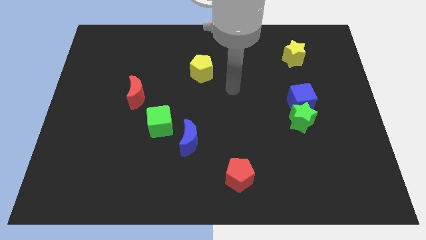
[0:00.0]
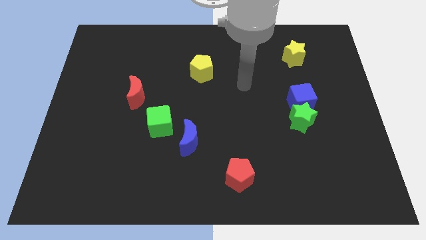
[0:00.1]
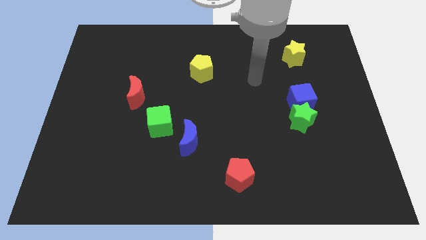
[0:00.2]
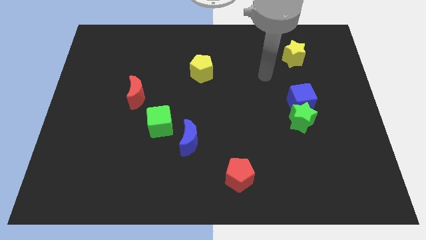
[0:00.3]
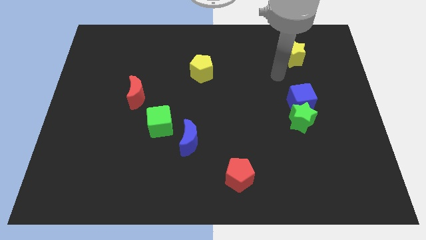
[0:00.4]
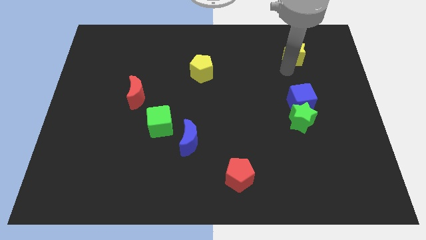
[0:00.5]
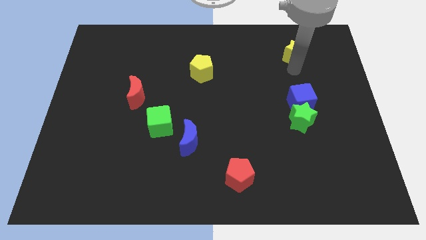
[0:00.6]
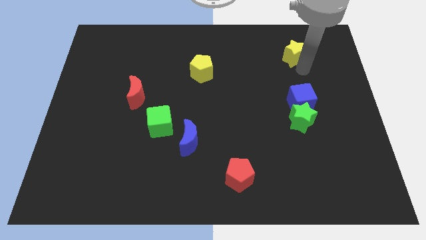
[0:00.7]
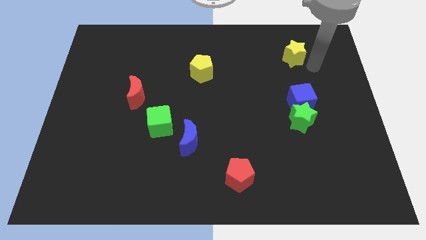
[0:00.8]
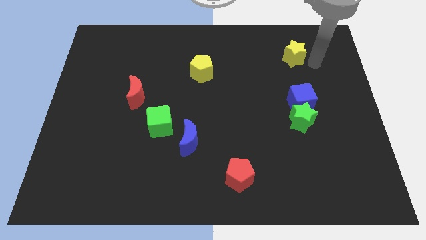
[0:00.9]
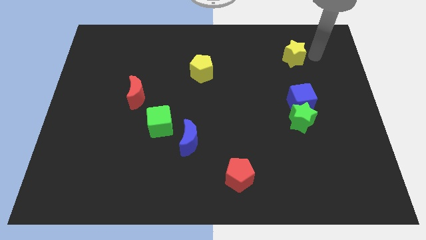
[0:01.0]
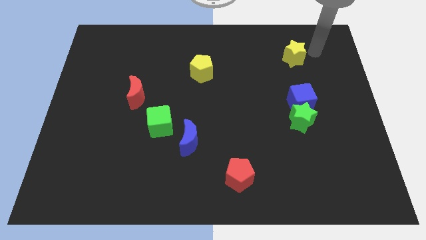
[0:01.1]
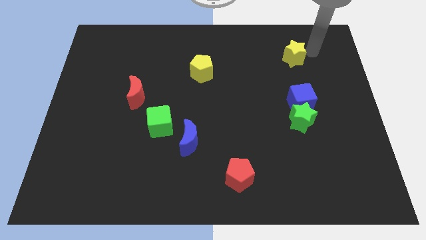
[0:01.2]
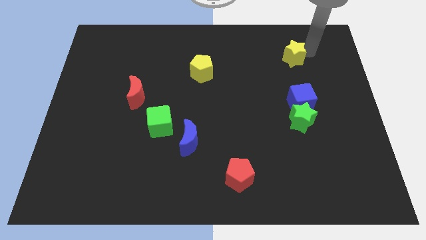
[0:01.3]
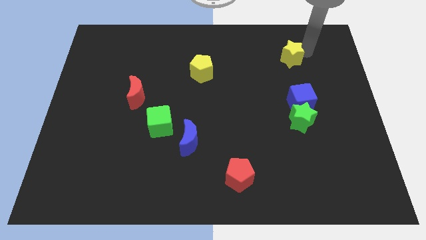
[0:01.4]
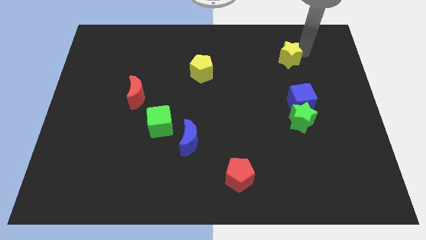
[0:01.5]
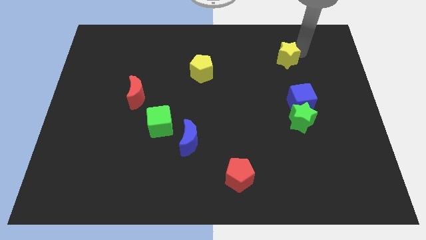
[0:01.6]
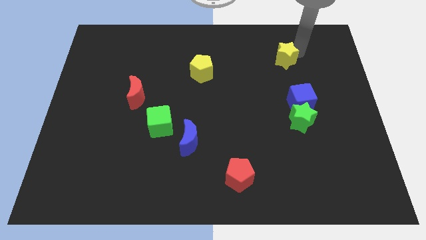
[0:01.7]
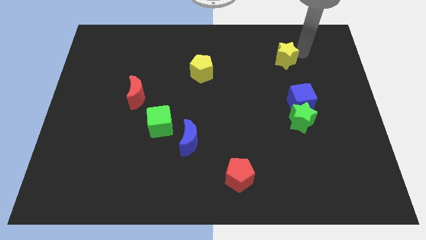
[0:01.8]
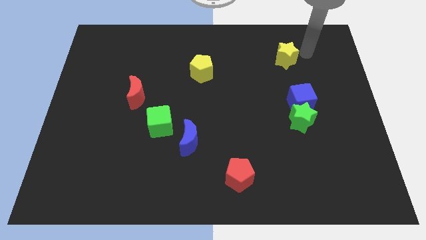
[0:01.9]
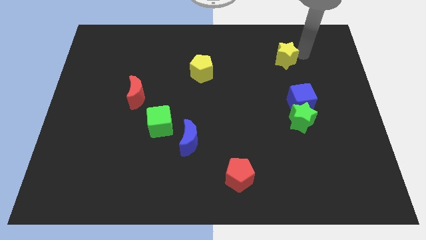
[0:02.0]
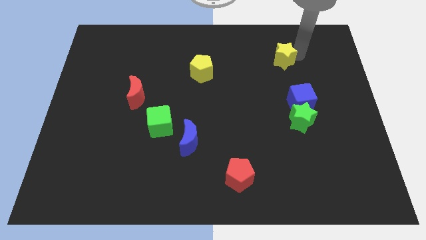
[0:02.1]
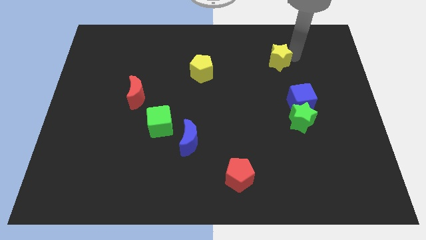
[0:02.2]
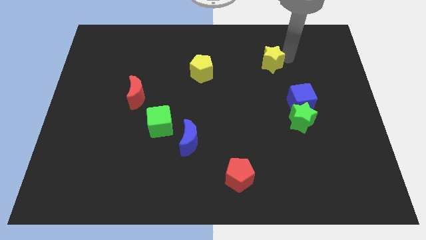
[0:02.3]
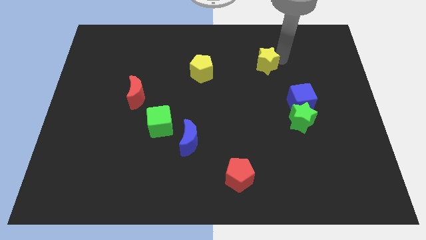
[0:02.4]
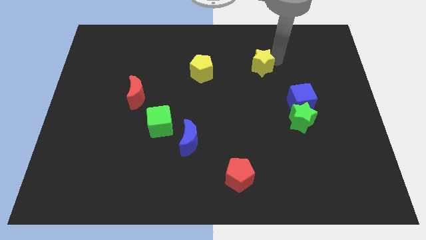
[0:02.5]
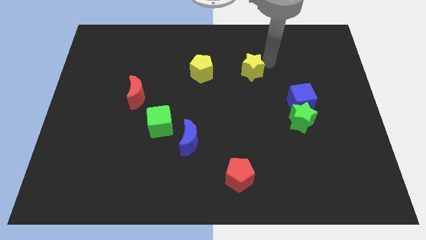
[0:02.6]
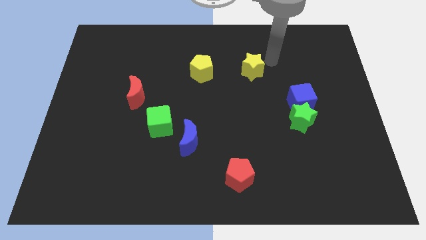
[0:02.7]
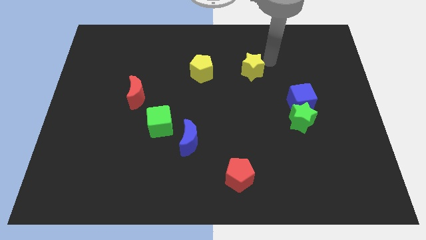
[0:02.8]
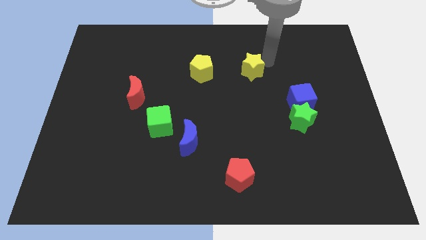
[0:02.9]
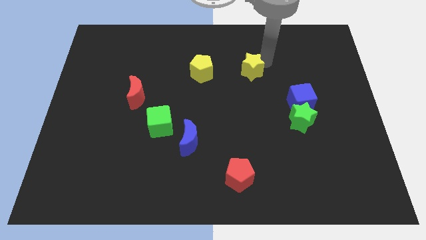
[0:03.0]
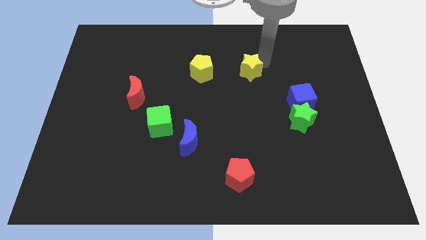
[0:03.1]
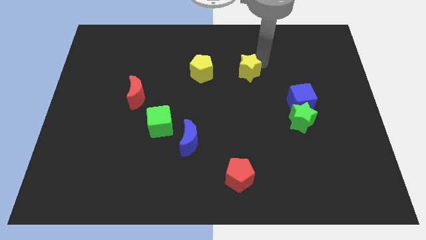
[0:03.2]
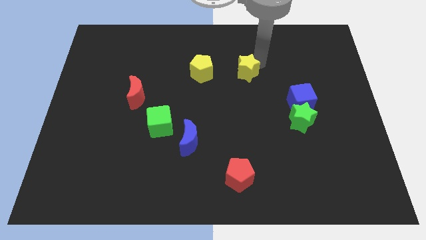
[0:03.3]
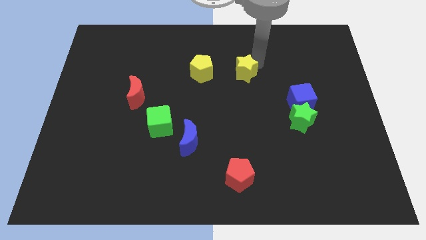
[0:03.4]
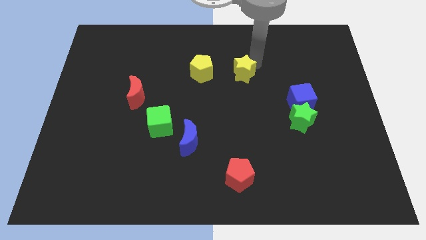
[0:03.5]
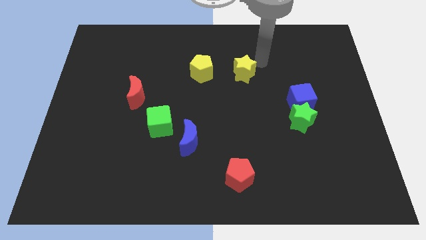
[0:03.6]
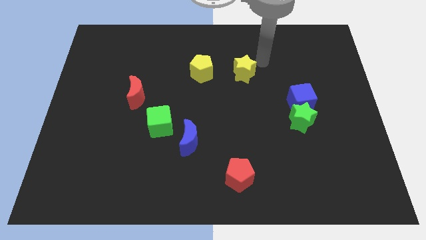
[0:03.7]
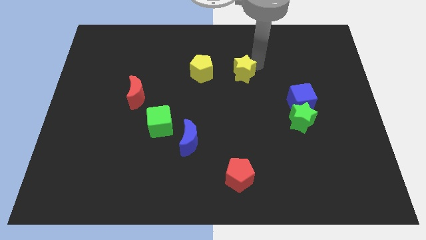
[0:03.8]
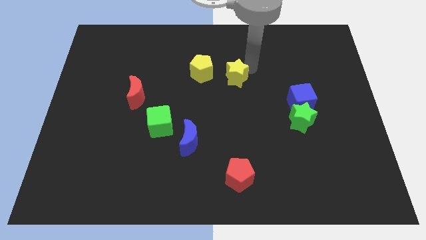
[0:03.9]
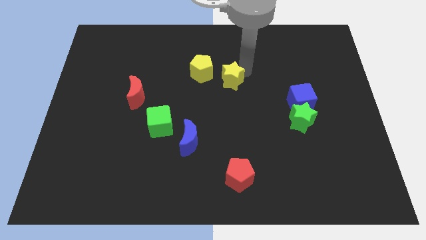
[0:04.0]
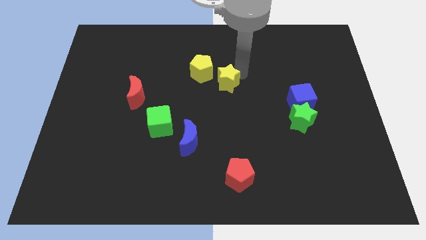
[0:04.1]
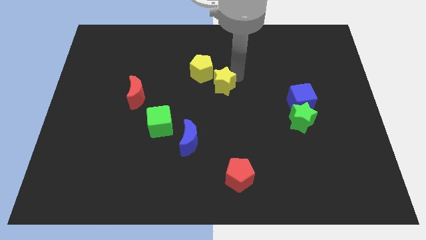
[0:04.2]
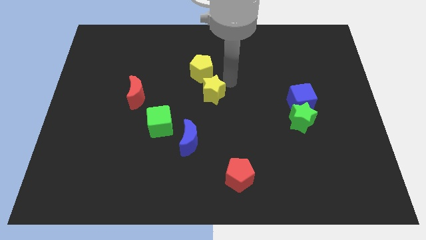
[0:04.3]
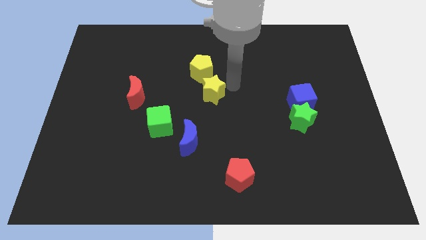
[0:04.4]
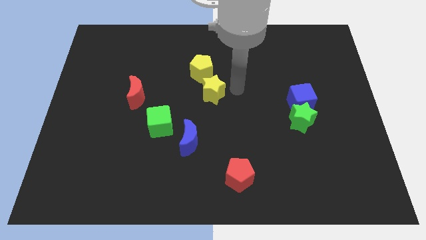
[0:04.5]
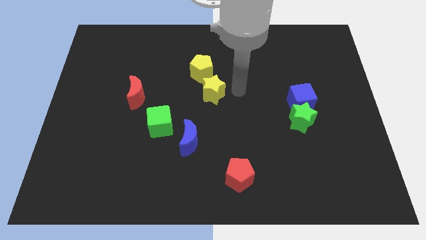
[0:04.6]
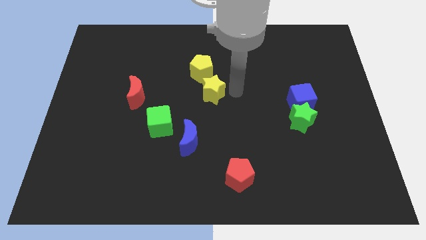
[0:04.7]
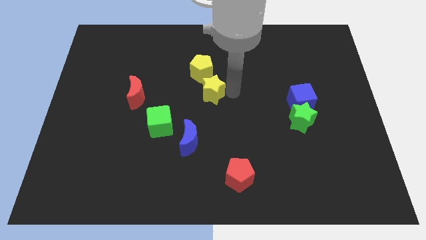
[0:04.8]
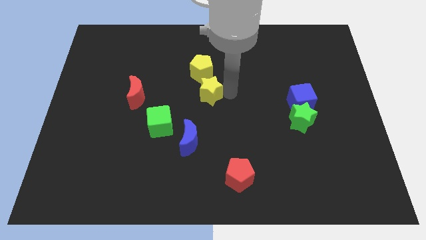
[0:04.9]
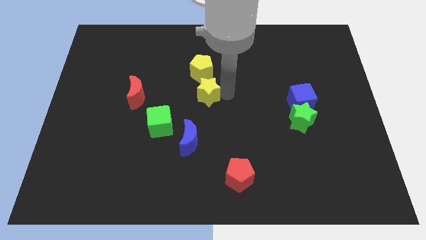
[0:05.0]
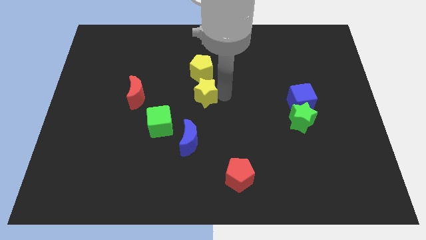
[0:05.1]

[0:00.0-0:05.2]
move the yellow star right of the red moon

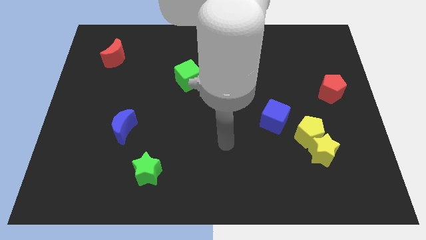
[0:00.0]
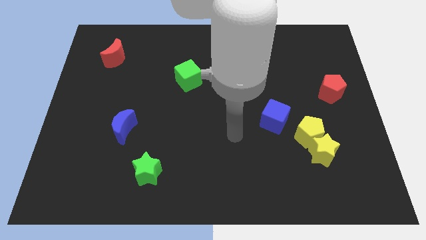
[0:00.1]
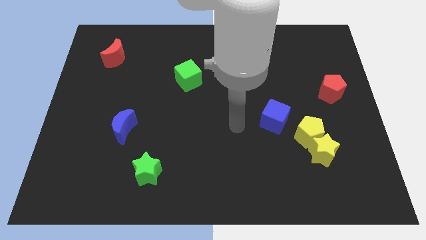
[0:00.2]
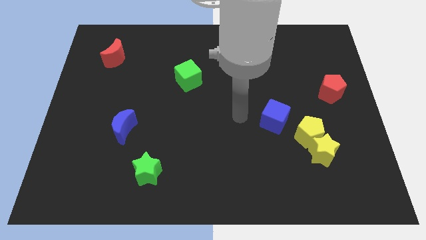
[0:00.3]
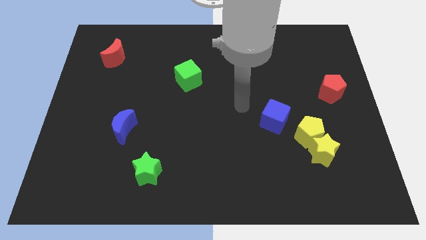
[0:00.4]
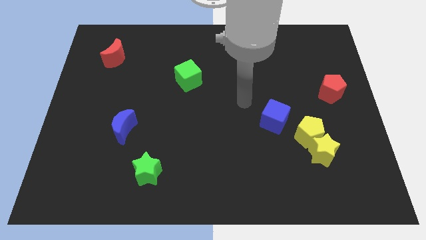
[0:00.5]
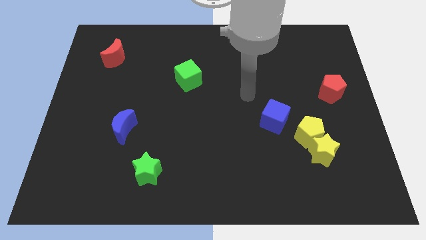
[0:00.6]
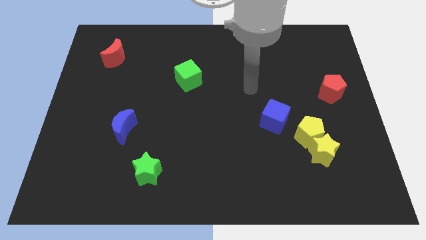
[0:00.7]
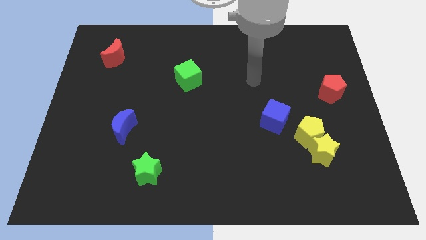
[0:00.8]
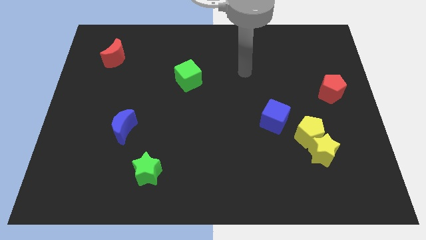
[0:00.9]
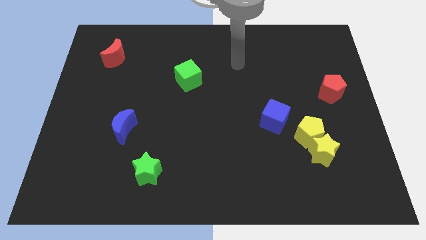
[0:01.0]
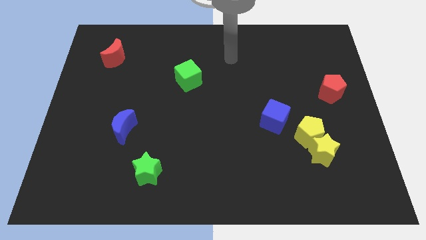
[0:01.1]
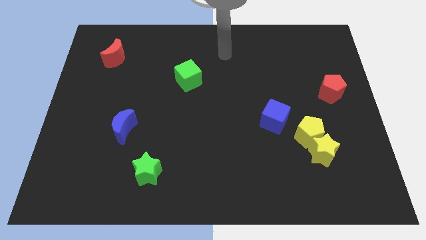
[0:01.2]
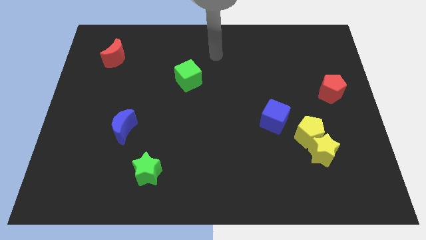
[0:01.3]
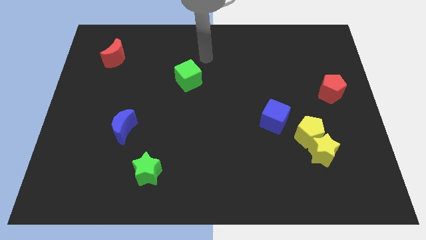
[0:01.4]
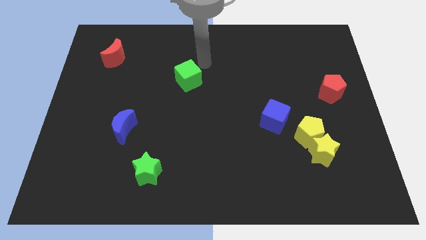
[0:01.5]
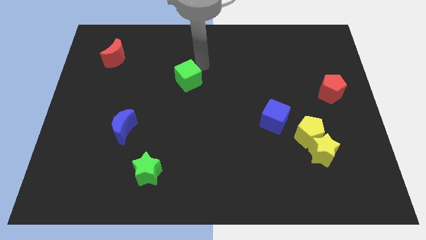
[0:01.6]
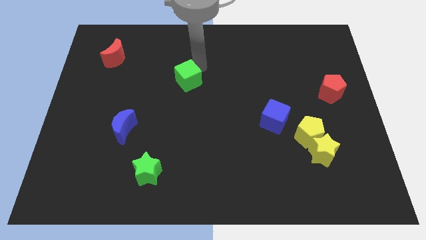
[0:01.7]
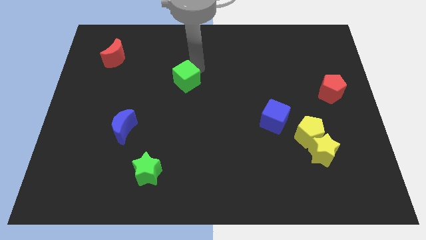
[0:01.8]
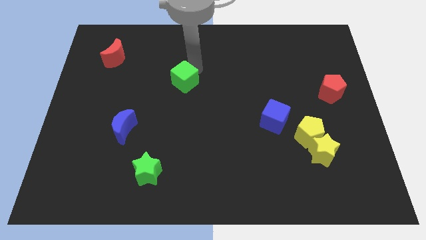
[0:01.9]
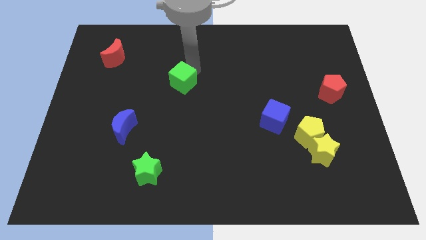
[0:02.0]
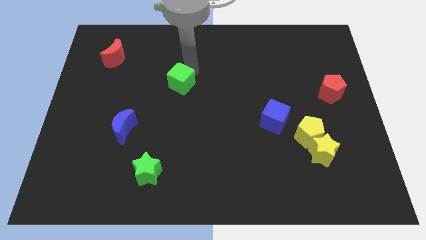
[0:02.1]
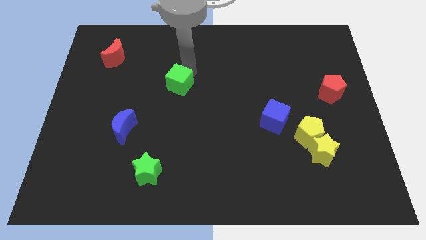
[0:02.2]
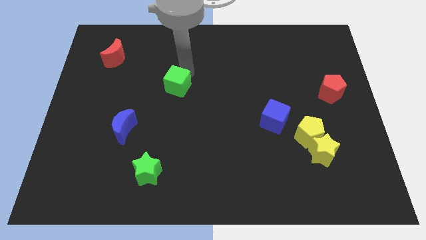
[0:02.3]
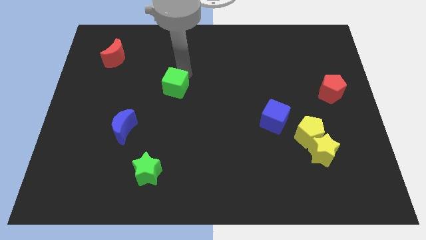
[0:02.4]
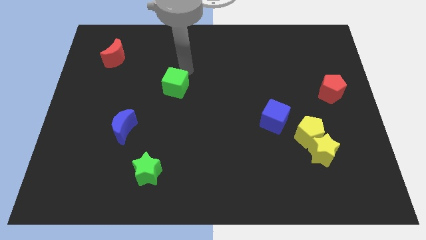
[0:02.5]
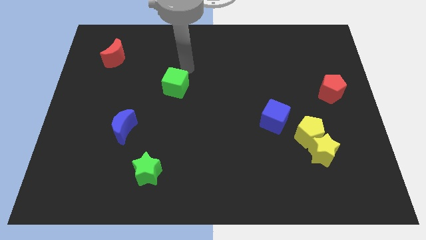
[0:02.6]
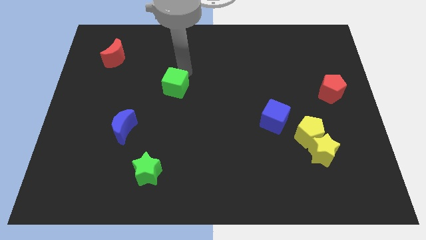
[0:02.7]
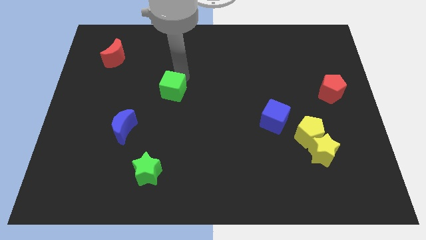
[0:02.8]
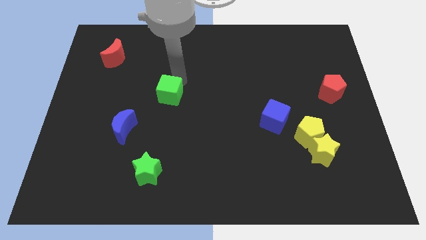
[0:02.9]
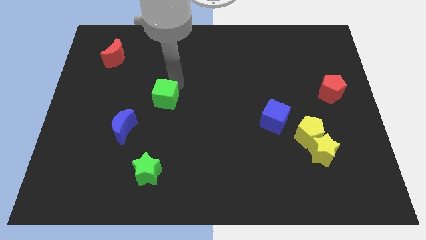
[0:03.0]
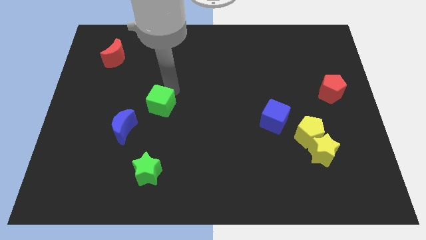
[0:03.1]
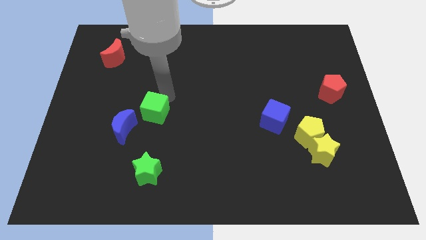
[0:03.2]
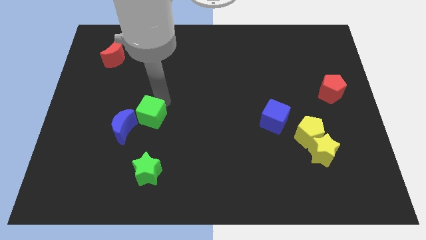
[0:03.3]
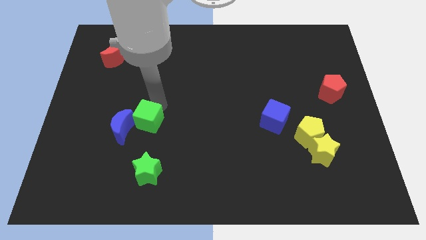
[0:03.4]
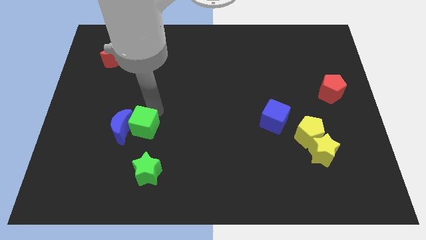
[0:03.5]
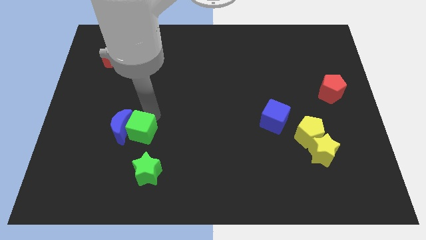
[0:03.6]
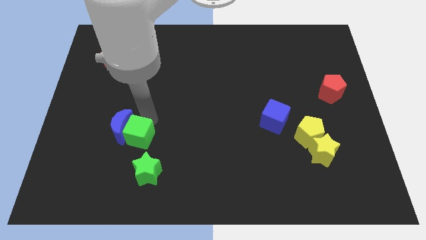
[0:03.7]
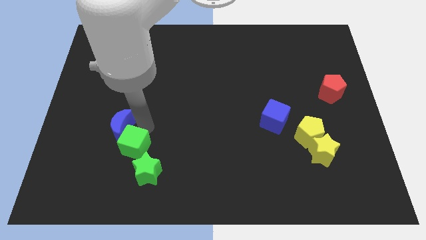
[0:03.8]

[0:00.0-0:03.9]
move the green cube below the blue moon
